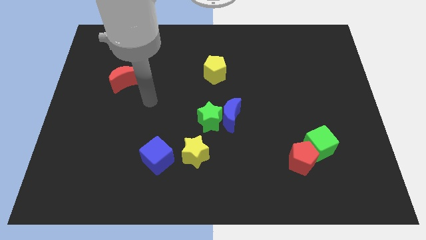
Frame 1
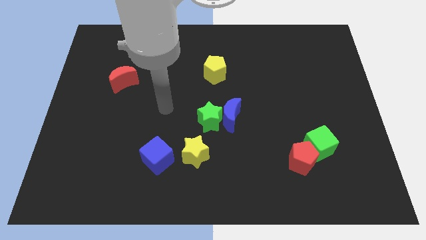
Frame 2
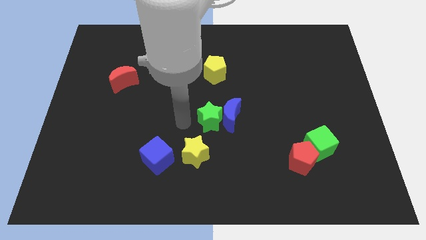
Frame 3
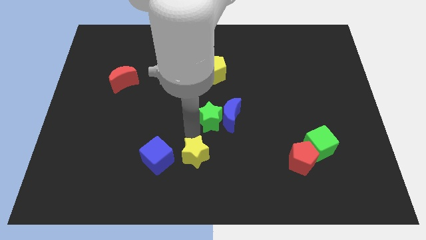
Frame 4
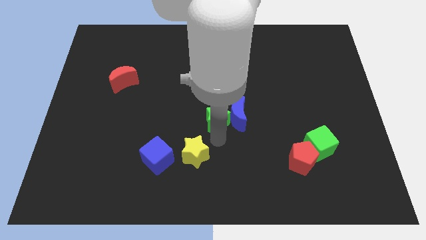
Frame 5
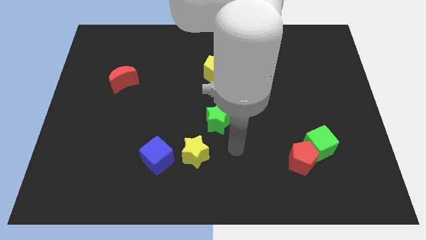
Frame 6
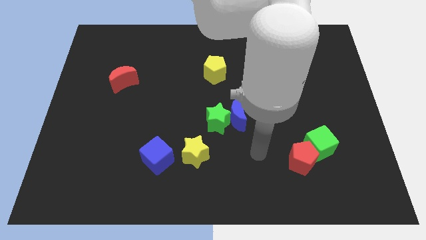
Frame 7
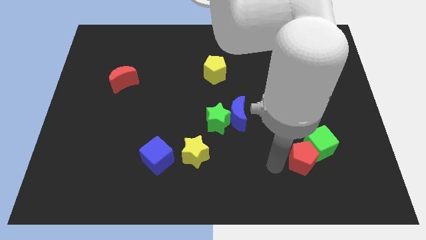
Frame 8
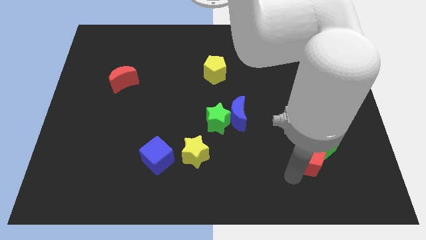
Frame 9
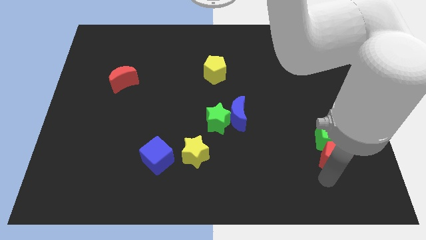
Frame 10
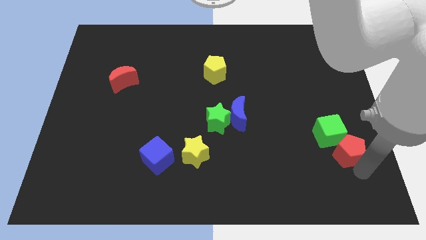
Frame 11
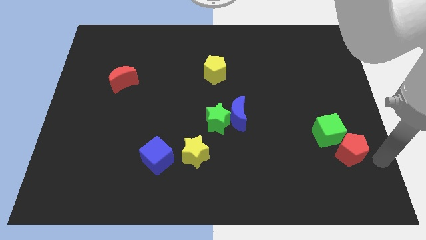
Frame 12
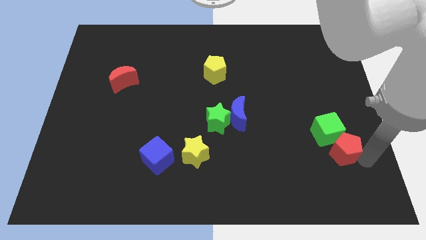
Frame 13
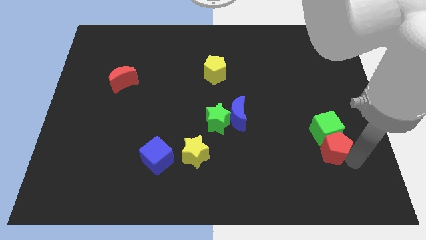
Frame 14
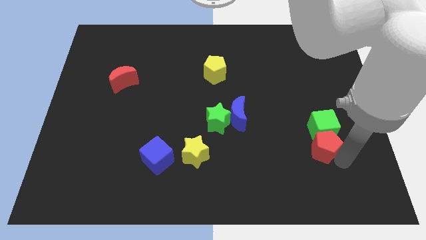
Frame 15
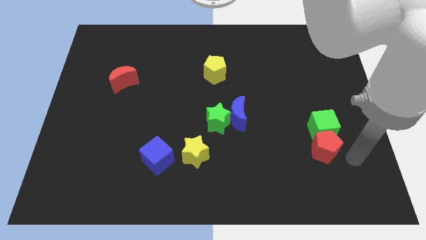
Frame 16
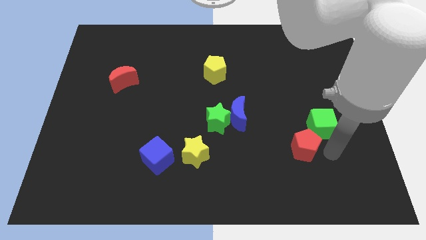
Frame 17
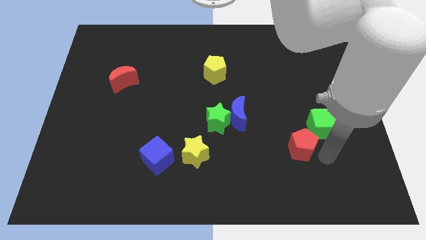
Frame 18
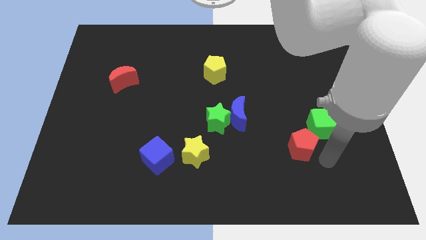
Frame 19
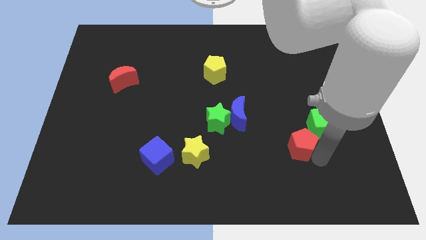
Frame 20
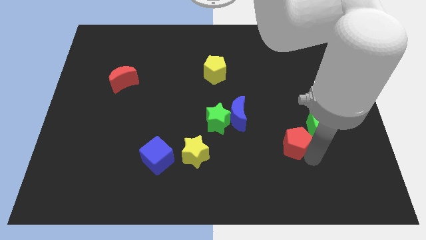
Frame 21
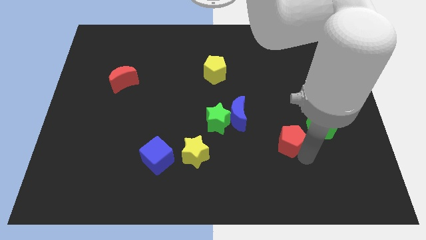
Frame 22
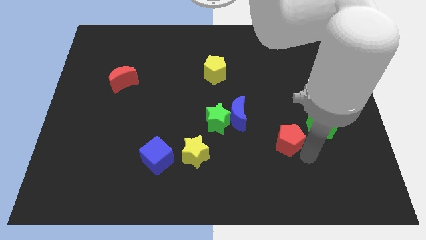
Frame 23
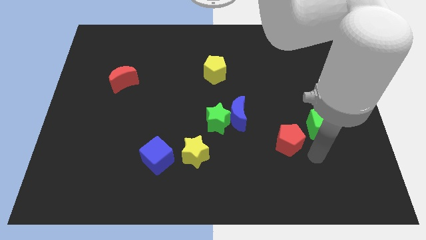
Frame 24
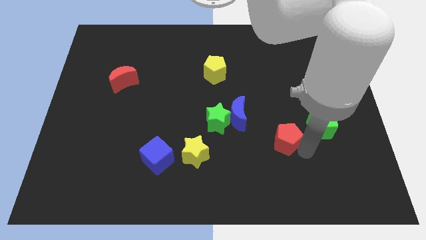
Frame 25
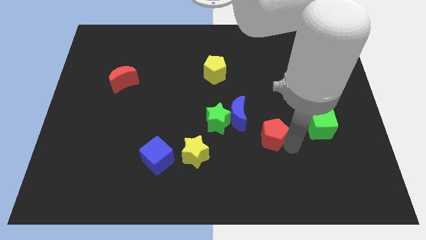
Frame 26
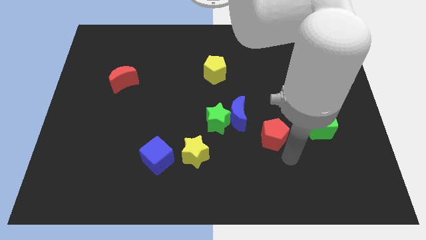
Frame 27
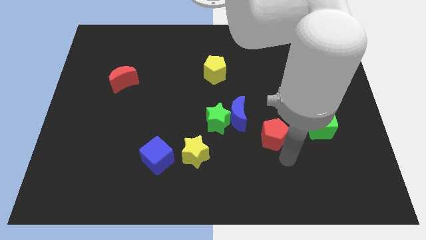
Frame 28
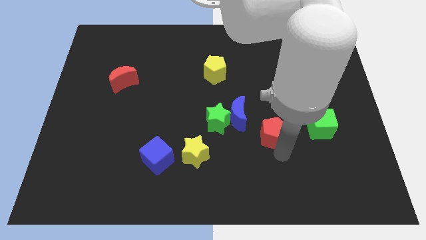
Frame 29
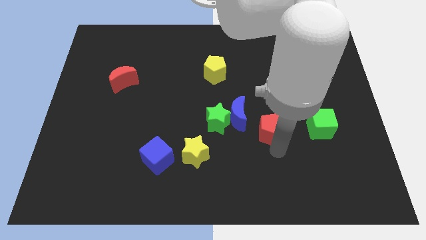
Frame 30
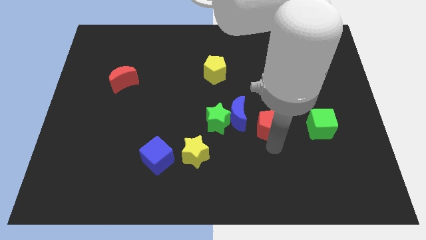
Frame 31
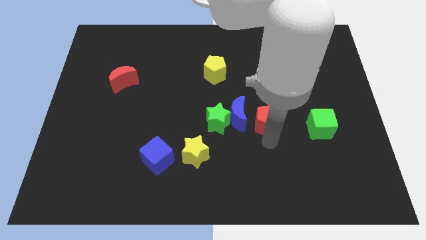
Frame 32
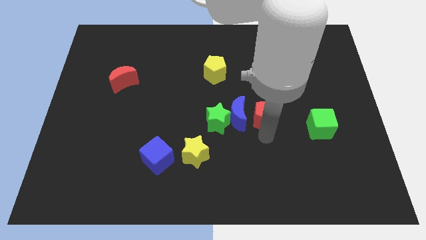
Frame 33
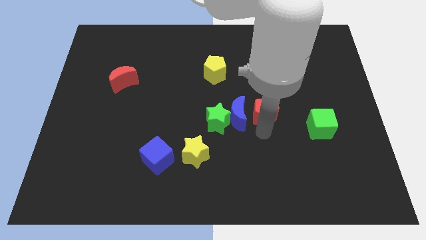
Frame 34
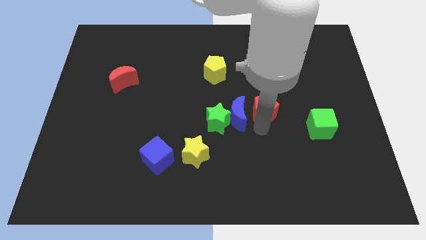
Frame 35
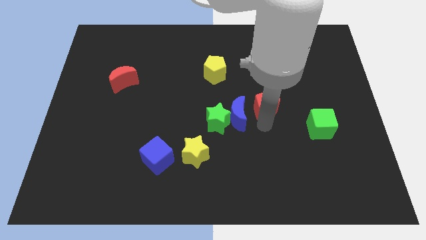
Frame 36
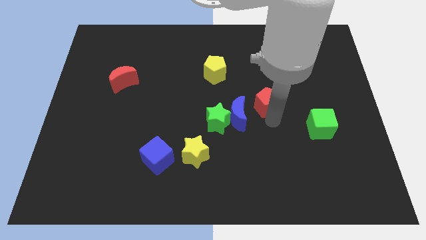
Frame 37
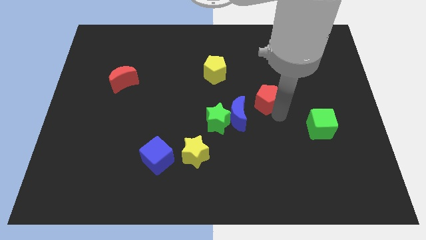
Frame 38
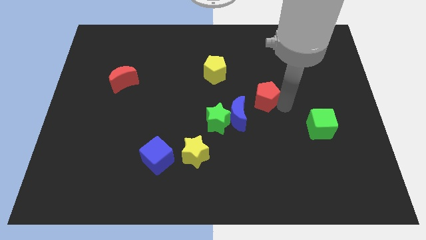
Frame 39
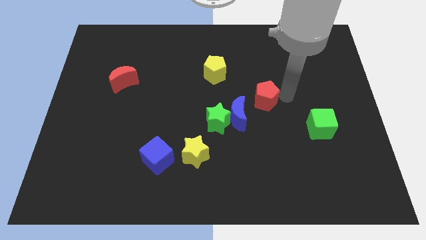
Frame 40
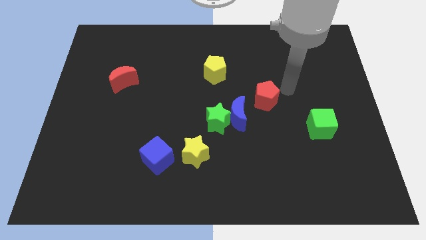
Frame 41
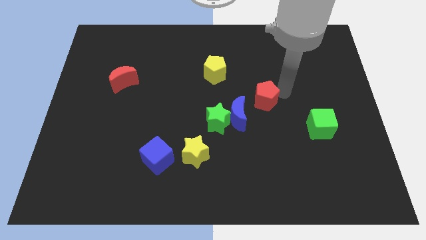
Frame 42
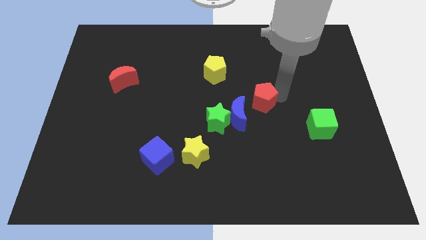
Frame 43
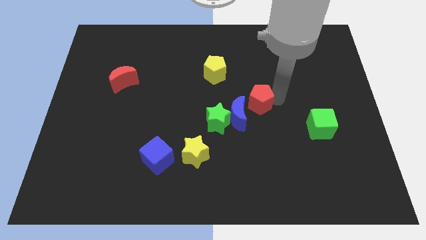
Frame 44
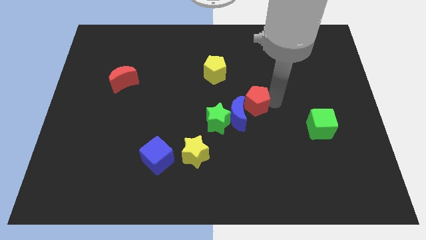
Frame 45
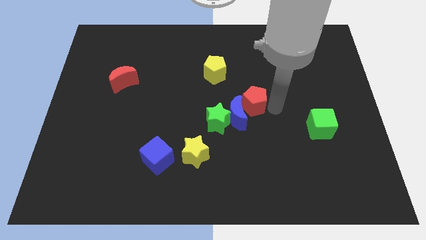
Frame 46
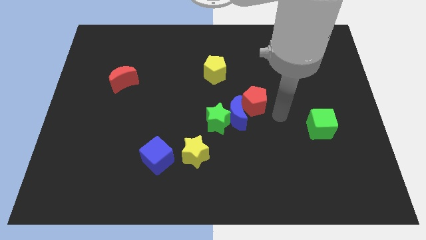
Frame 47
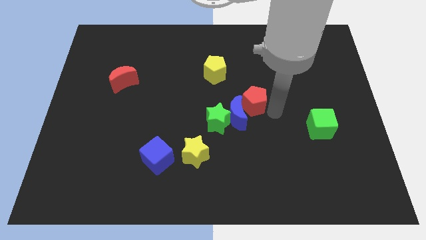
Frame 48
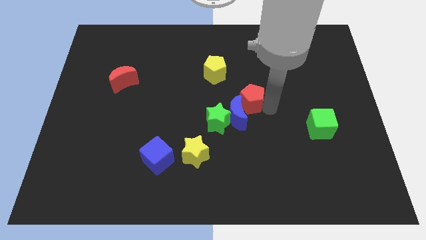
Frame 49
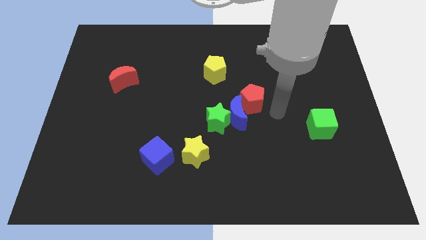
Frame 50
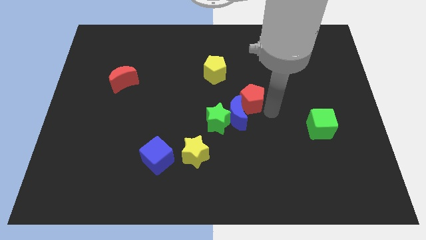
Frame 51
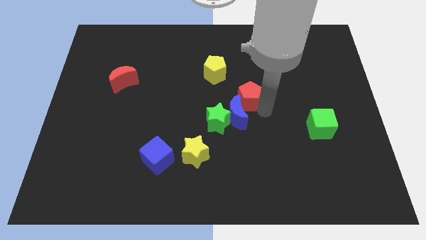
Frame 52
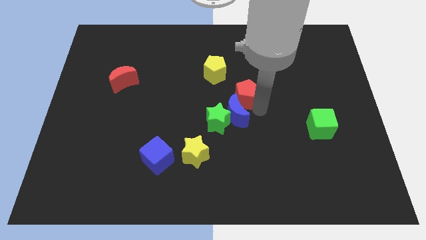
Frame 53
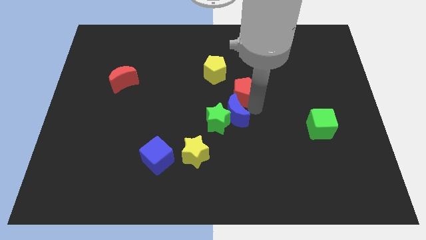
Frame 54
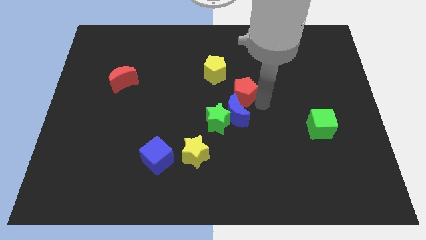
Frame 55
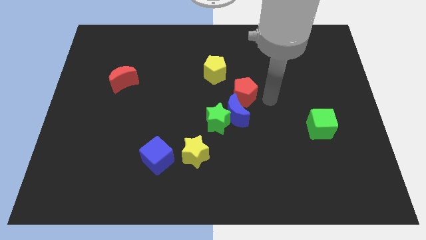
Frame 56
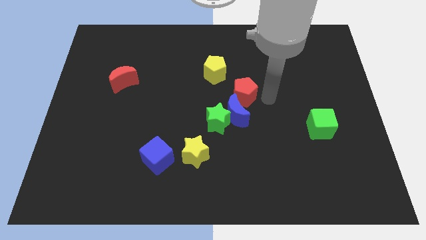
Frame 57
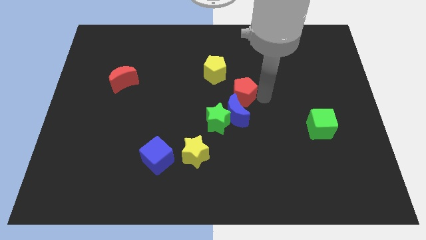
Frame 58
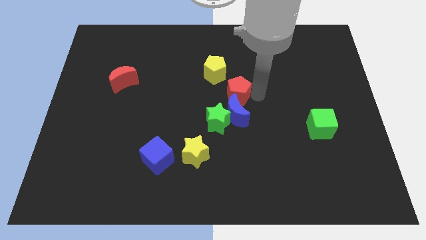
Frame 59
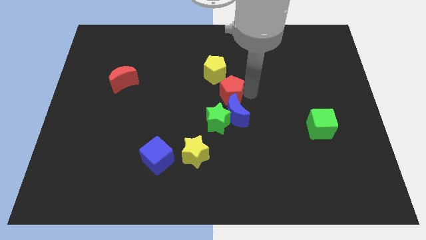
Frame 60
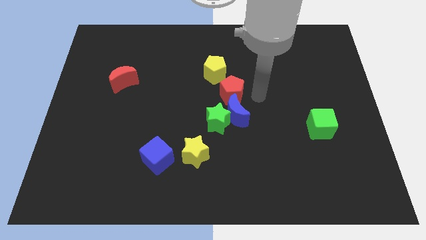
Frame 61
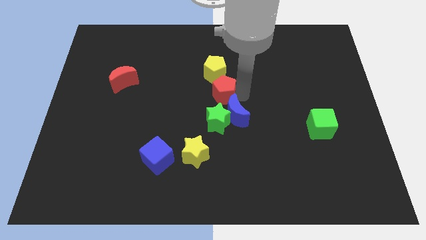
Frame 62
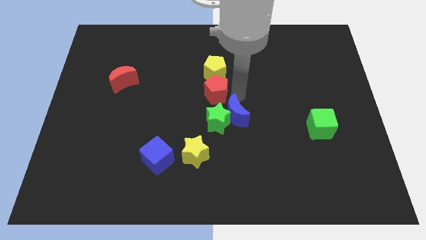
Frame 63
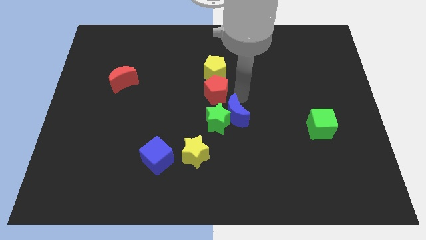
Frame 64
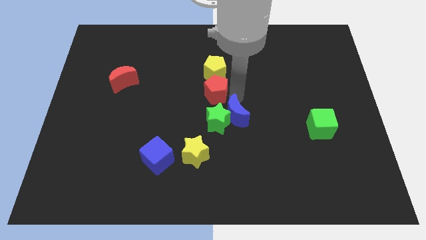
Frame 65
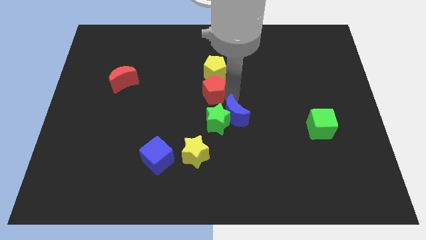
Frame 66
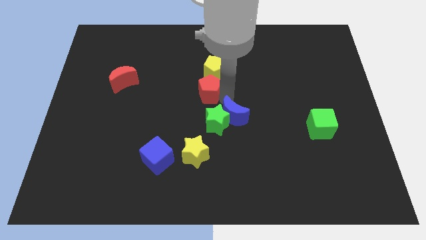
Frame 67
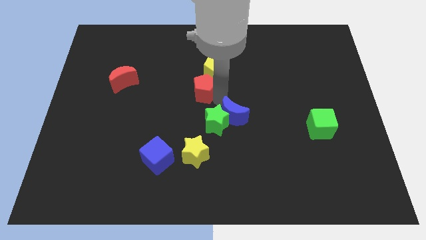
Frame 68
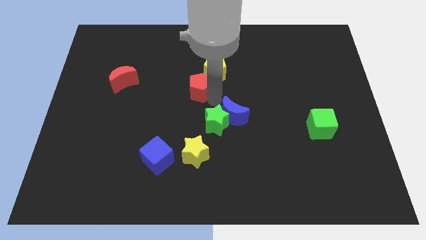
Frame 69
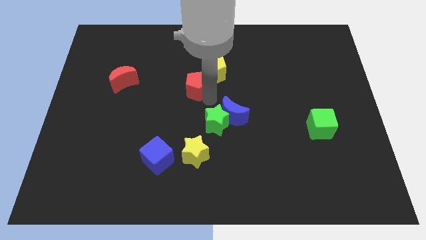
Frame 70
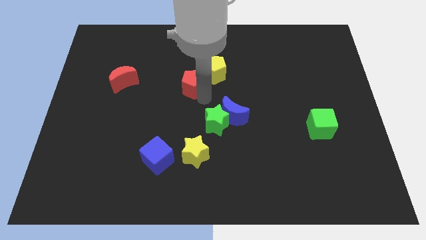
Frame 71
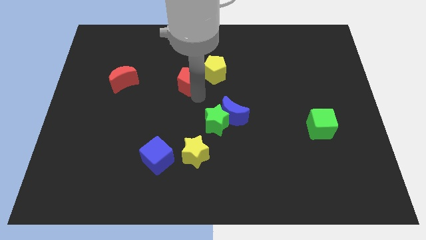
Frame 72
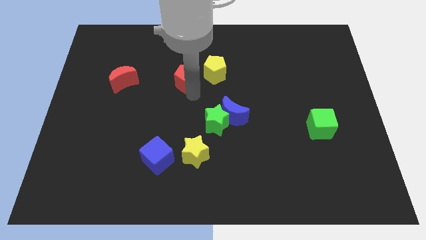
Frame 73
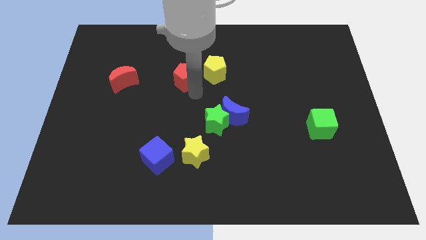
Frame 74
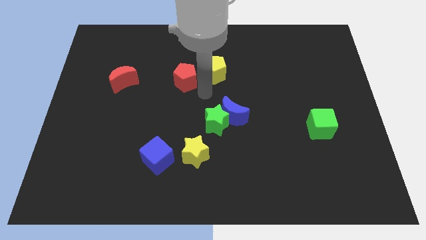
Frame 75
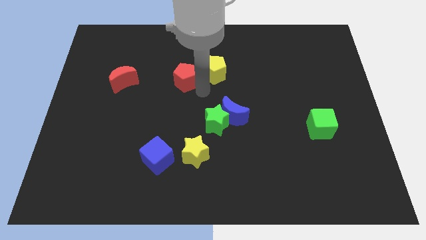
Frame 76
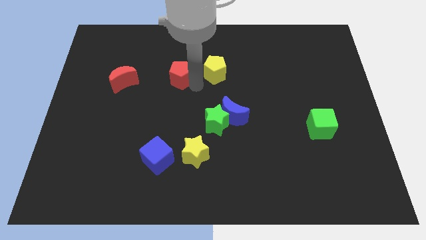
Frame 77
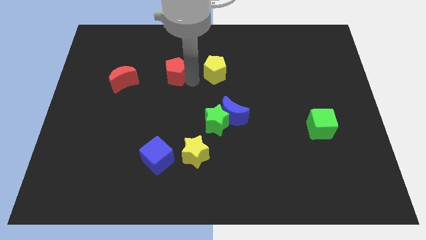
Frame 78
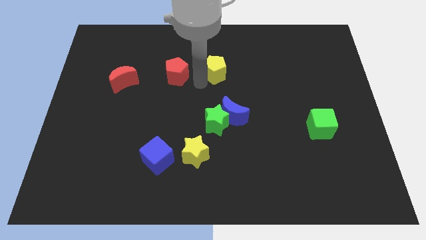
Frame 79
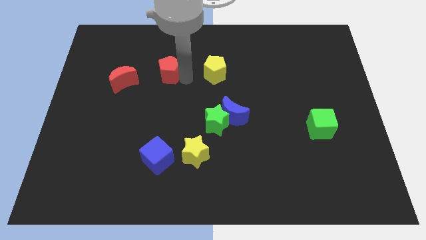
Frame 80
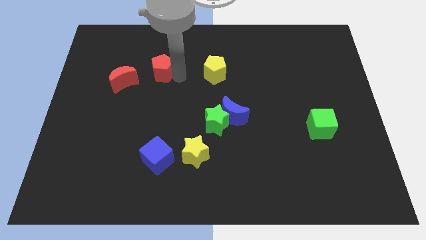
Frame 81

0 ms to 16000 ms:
push the red pentagon diagonally up and to the right of the red moon
